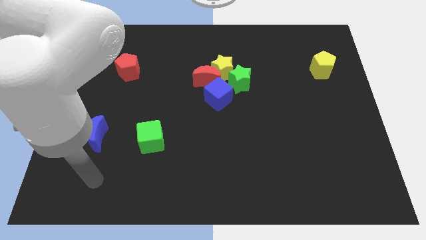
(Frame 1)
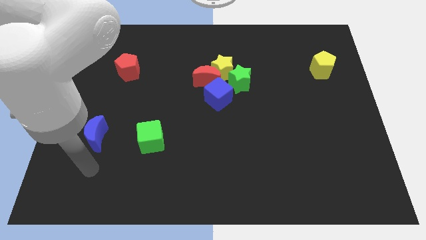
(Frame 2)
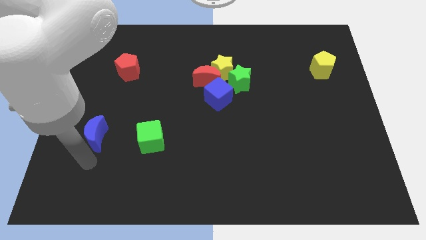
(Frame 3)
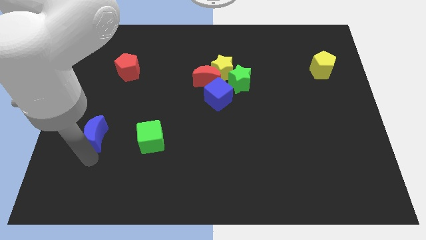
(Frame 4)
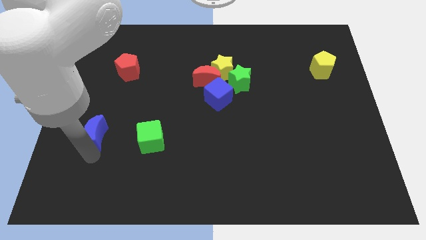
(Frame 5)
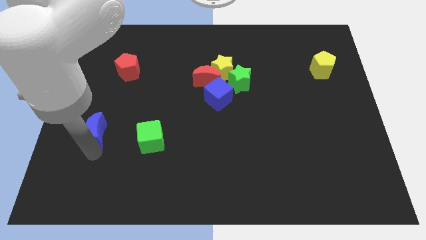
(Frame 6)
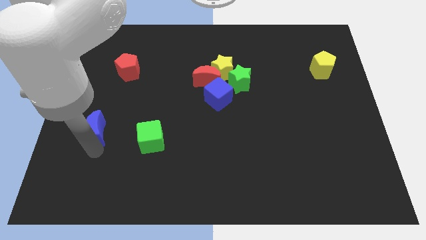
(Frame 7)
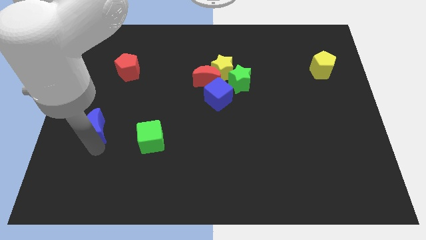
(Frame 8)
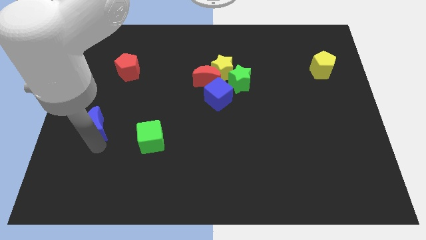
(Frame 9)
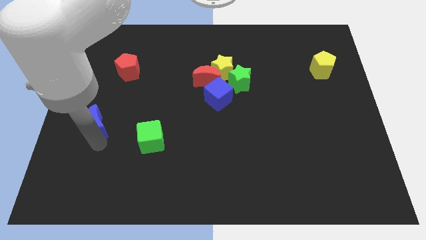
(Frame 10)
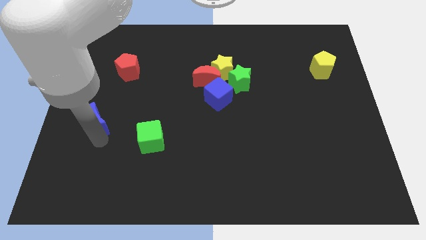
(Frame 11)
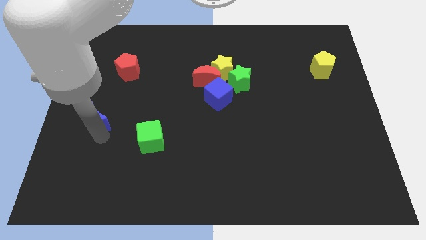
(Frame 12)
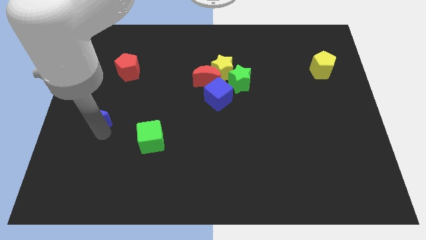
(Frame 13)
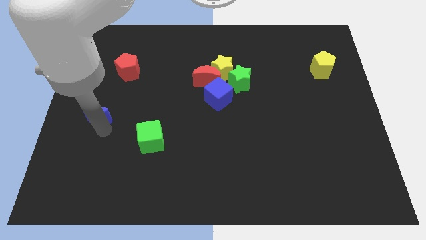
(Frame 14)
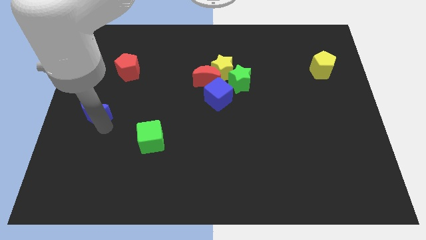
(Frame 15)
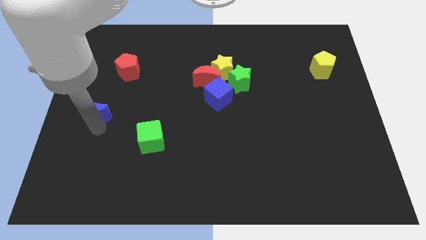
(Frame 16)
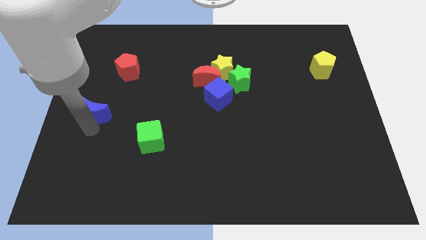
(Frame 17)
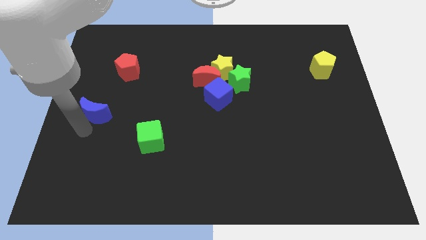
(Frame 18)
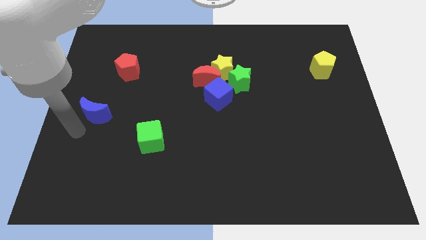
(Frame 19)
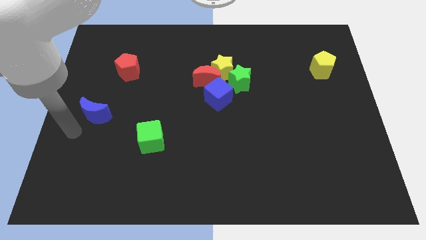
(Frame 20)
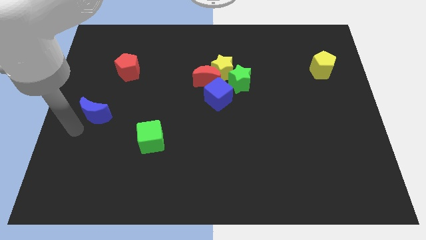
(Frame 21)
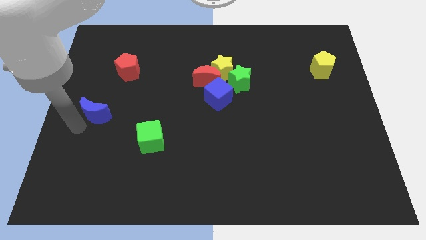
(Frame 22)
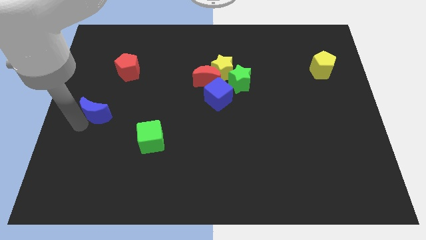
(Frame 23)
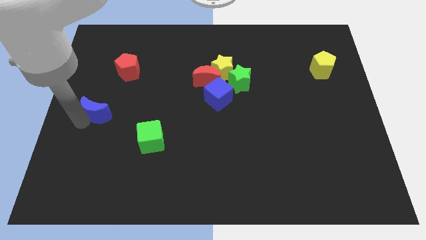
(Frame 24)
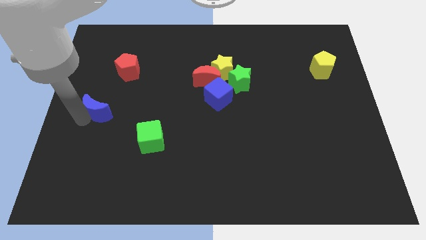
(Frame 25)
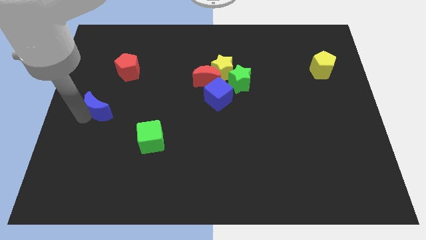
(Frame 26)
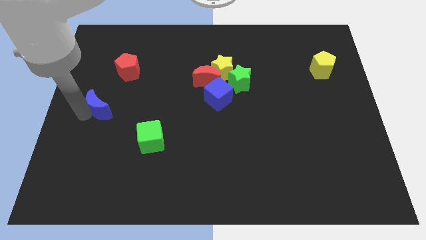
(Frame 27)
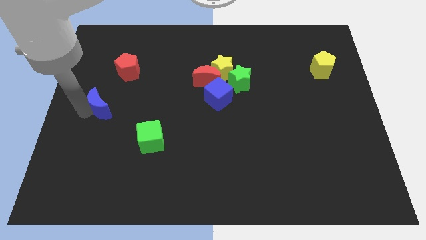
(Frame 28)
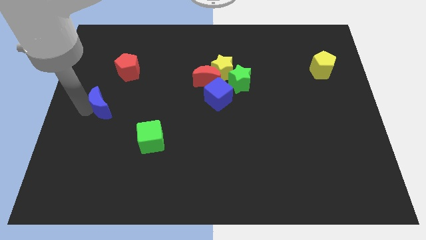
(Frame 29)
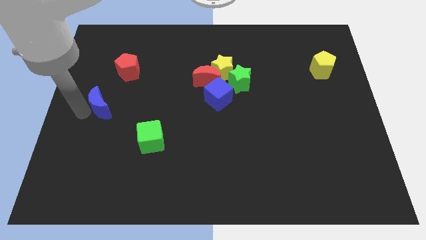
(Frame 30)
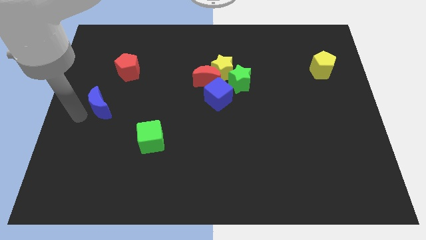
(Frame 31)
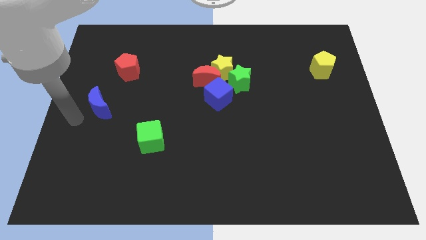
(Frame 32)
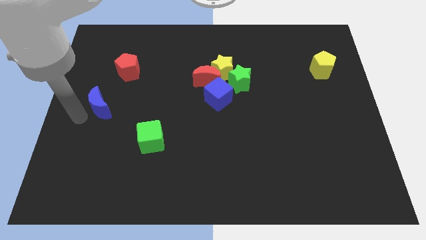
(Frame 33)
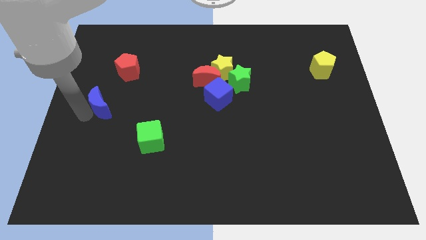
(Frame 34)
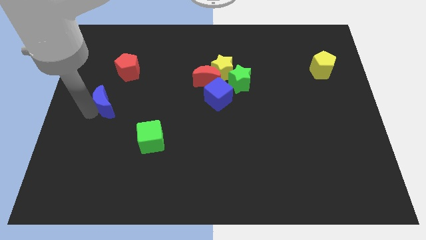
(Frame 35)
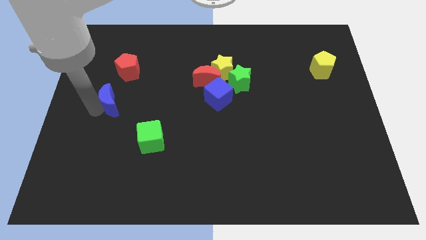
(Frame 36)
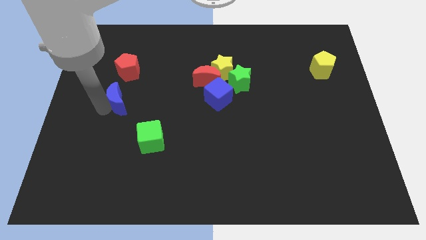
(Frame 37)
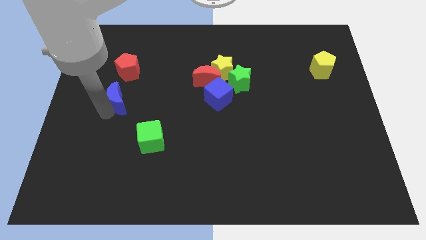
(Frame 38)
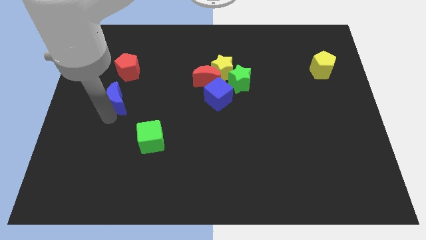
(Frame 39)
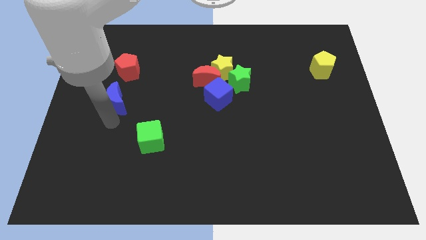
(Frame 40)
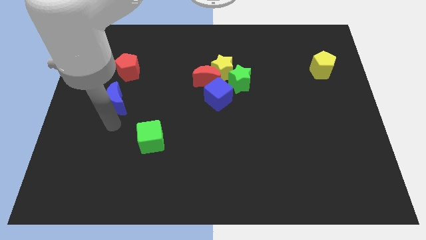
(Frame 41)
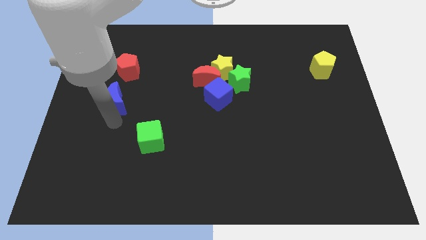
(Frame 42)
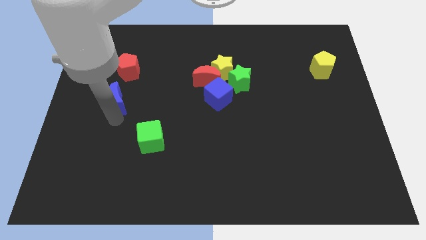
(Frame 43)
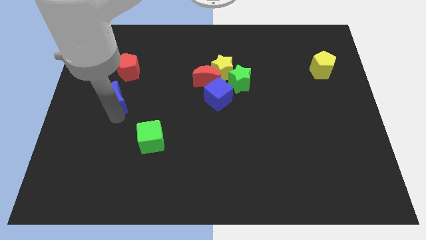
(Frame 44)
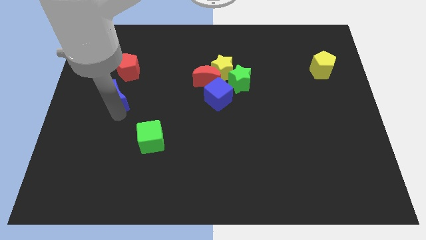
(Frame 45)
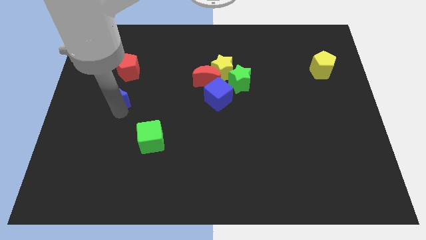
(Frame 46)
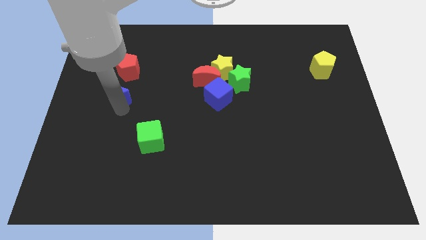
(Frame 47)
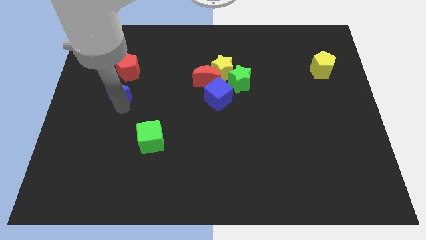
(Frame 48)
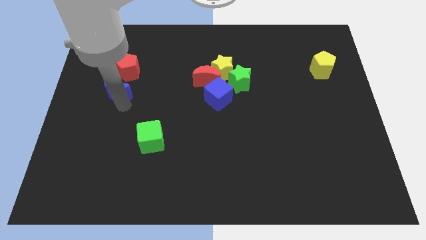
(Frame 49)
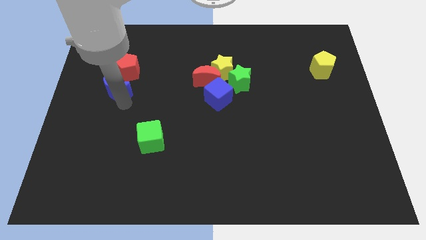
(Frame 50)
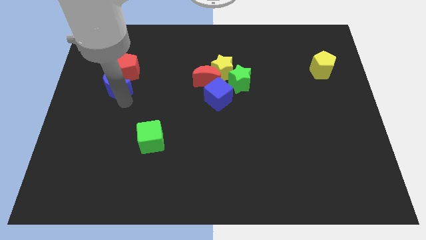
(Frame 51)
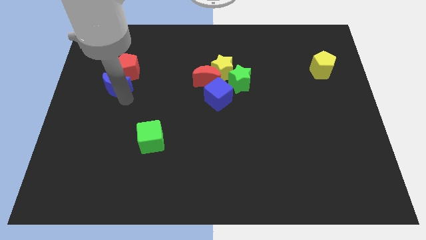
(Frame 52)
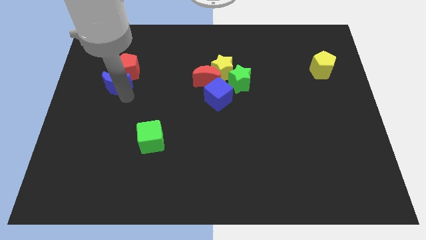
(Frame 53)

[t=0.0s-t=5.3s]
slide the blue moon next to the red pentagon

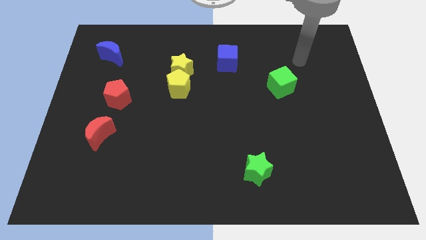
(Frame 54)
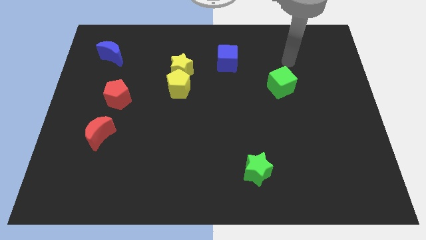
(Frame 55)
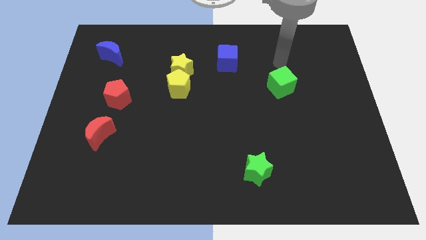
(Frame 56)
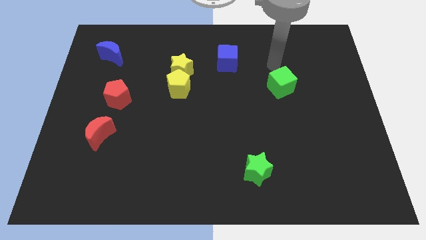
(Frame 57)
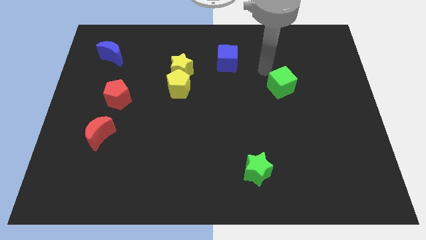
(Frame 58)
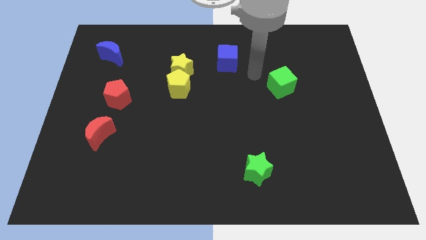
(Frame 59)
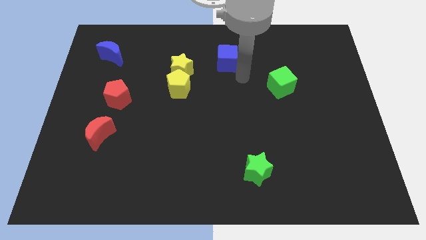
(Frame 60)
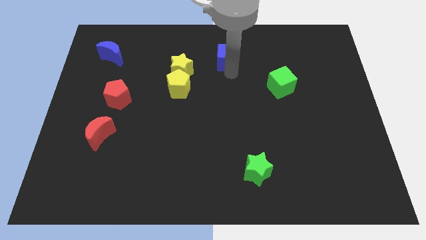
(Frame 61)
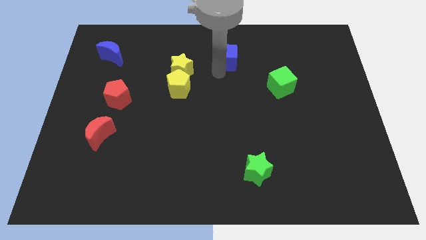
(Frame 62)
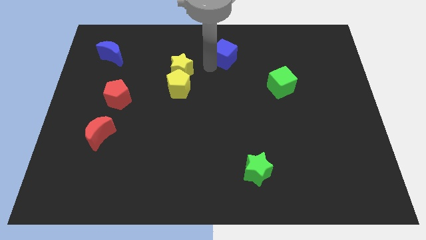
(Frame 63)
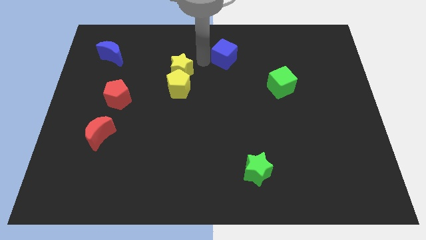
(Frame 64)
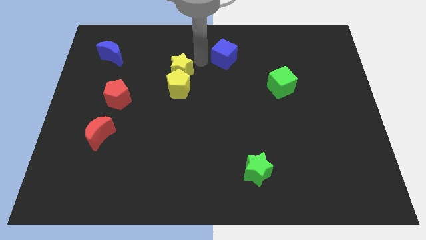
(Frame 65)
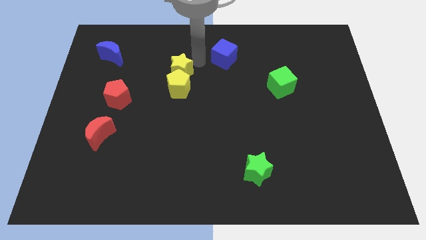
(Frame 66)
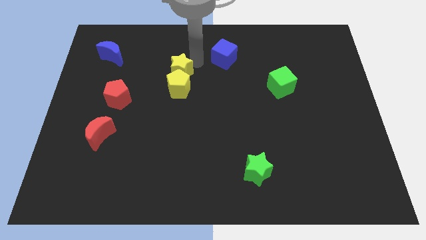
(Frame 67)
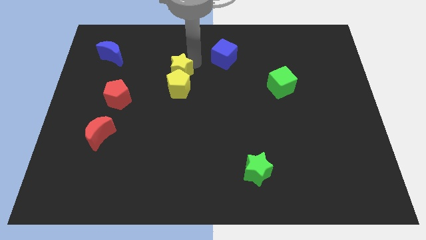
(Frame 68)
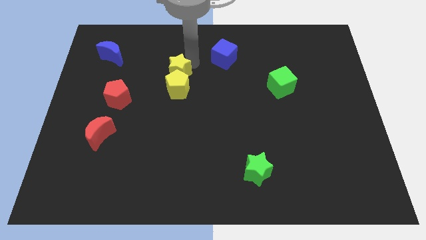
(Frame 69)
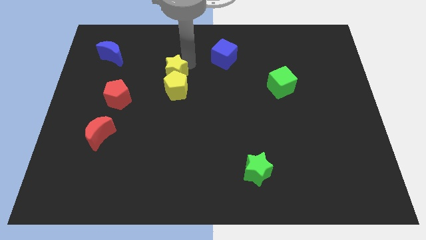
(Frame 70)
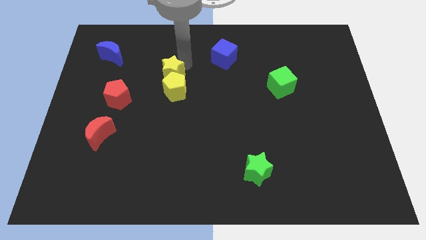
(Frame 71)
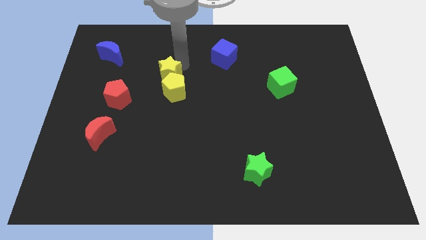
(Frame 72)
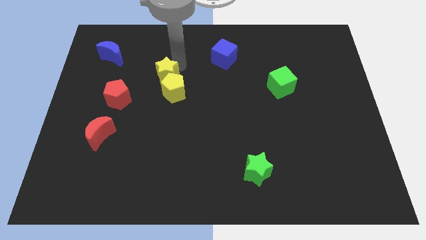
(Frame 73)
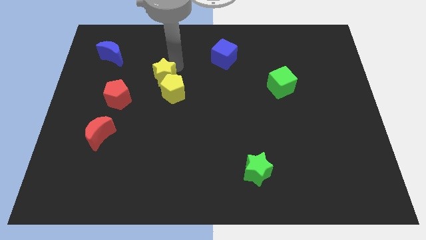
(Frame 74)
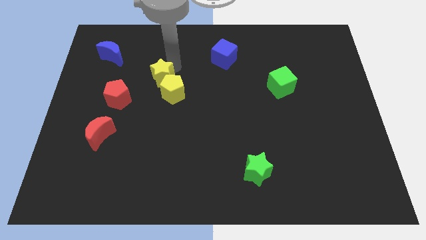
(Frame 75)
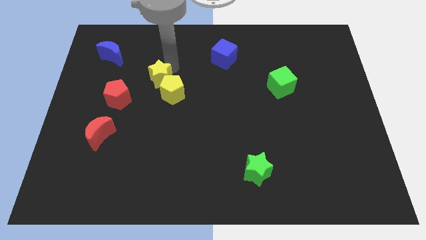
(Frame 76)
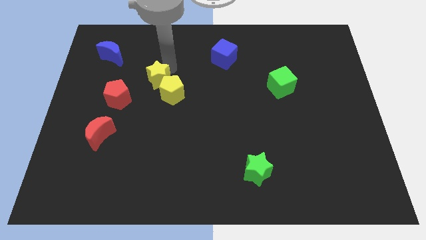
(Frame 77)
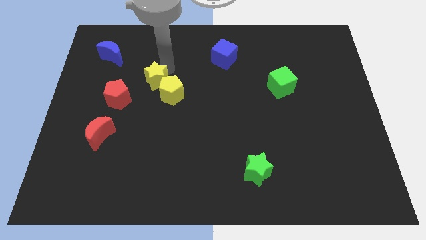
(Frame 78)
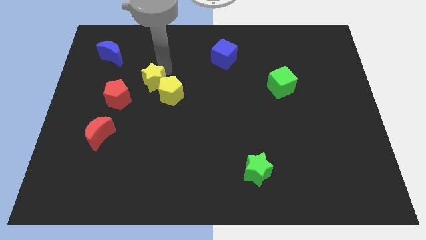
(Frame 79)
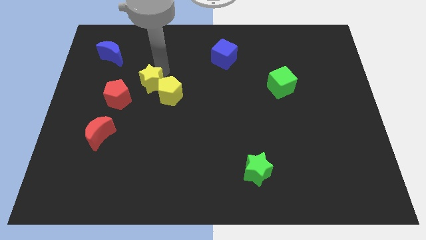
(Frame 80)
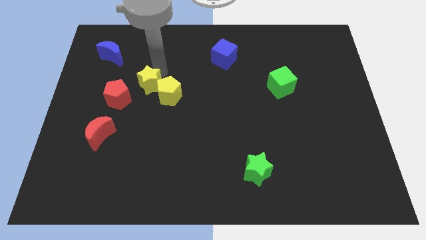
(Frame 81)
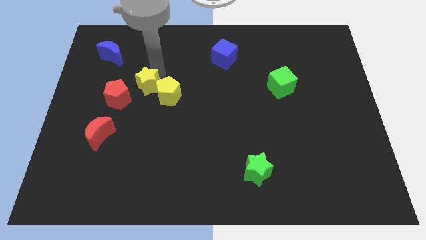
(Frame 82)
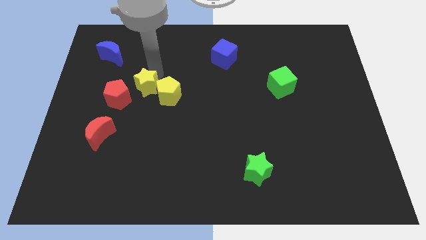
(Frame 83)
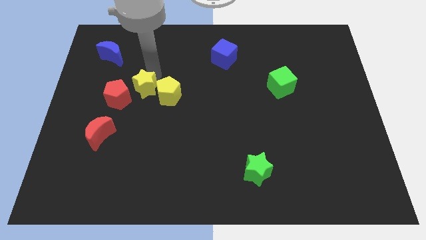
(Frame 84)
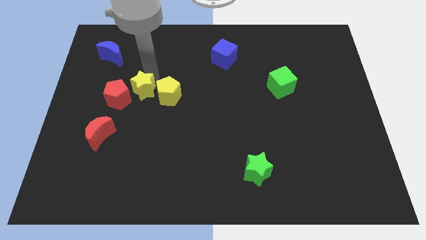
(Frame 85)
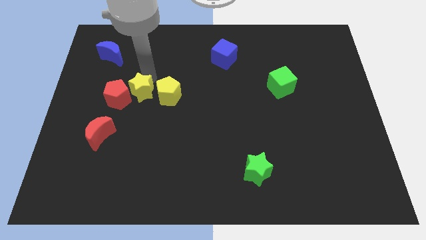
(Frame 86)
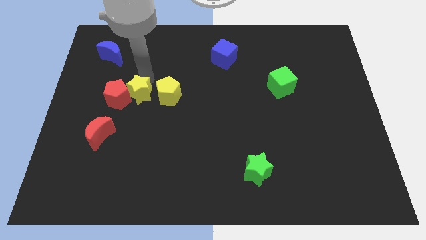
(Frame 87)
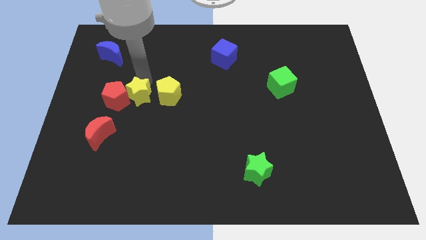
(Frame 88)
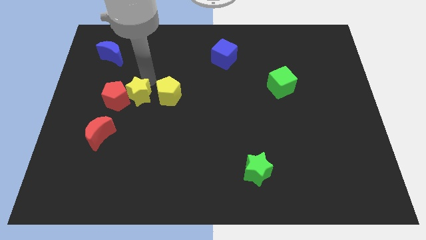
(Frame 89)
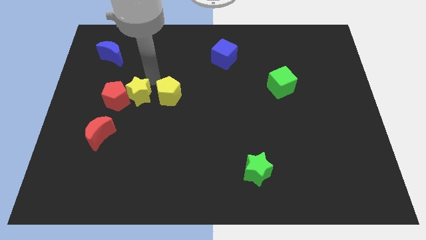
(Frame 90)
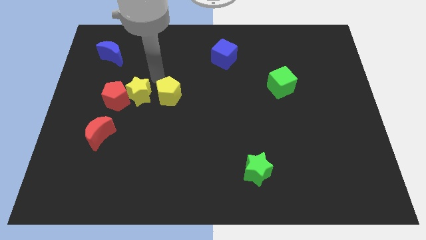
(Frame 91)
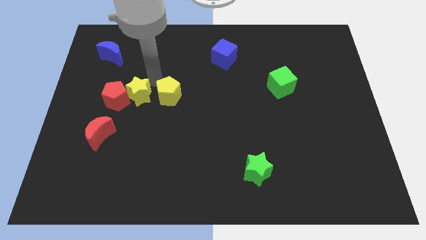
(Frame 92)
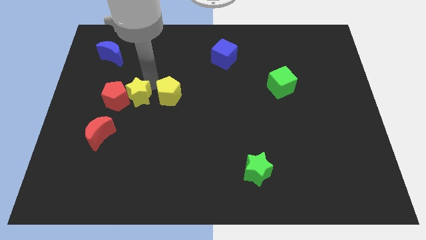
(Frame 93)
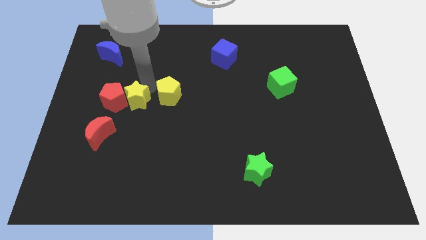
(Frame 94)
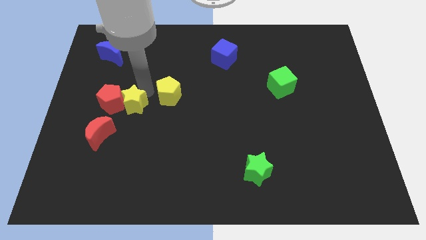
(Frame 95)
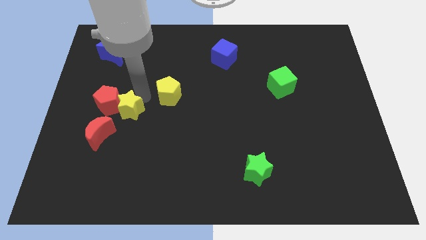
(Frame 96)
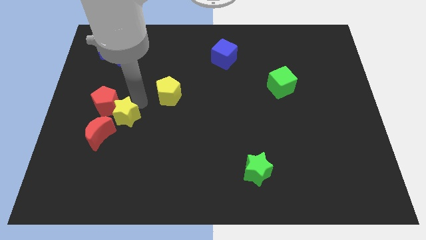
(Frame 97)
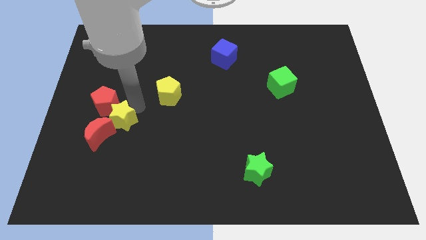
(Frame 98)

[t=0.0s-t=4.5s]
slide the yellow star towards the red moon
